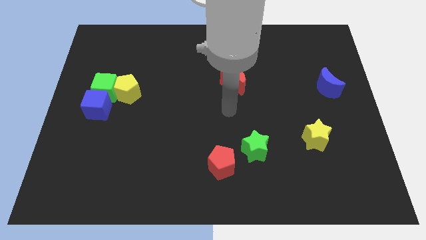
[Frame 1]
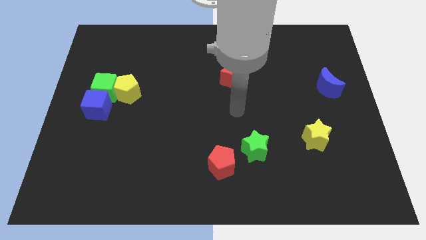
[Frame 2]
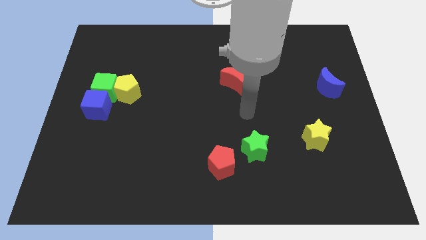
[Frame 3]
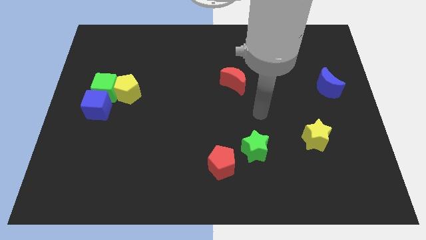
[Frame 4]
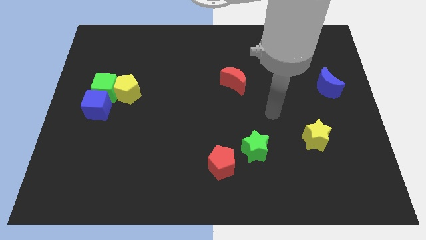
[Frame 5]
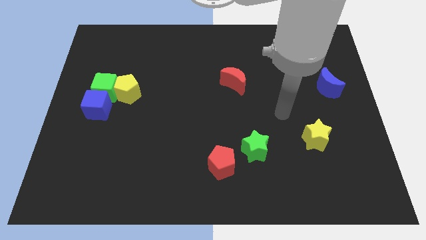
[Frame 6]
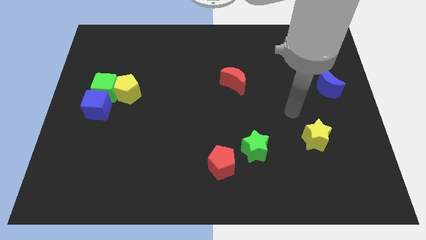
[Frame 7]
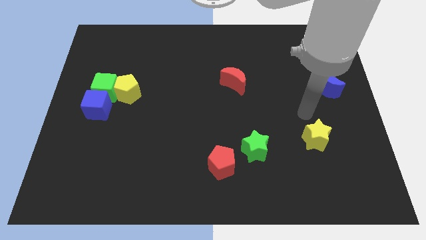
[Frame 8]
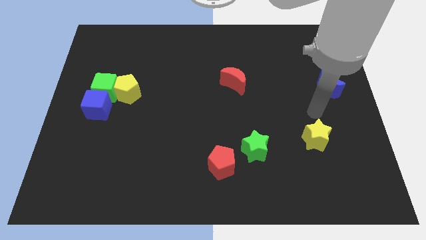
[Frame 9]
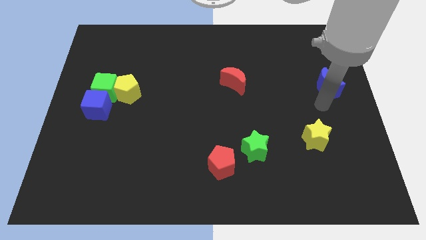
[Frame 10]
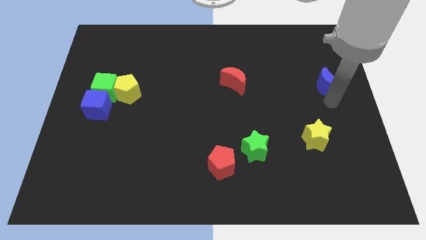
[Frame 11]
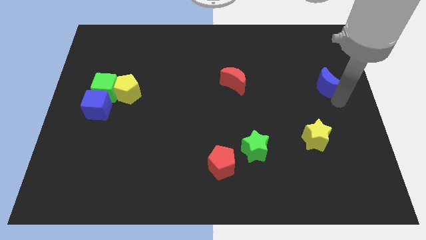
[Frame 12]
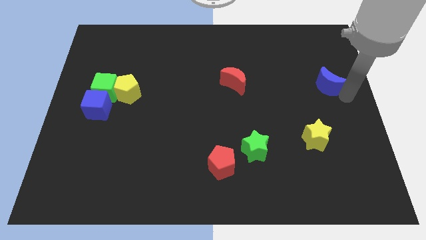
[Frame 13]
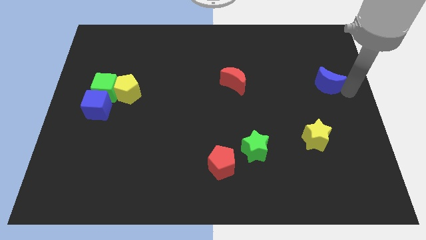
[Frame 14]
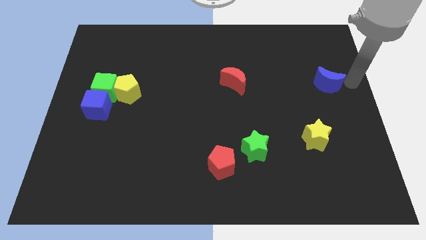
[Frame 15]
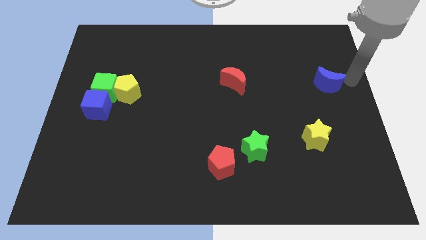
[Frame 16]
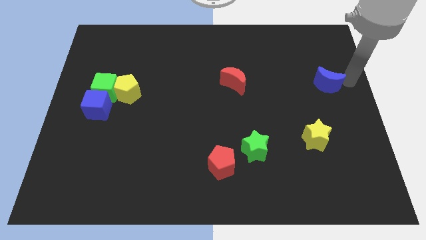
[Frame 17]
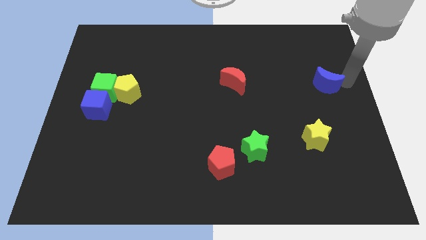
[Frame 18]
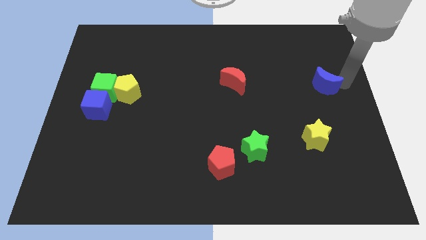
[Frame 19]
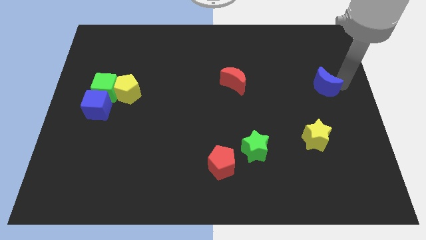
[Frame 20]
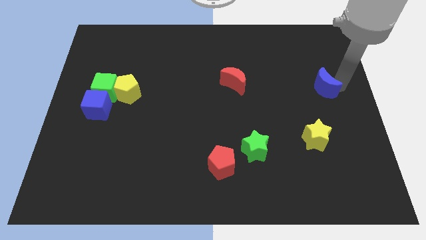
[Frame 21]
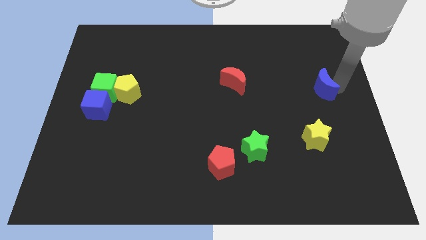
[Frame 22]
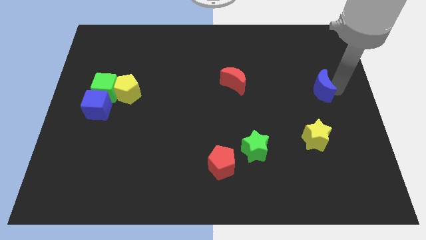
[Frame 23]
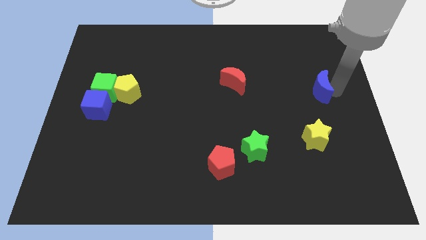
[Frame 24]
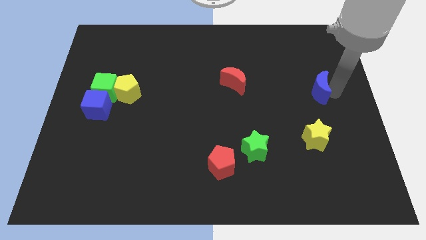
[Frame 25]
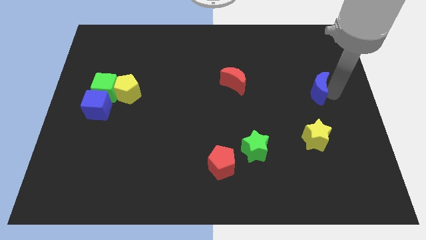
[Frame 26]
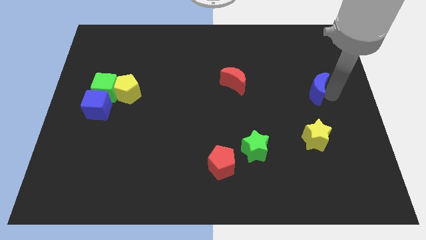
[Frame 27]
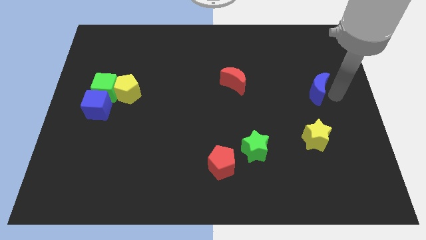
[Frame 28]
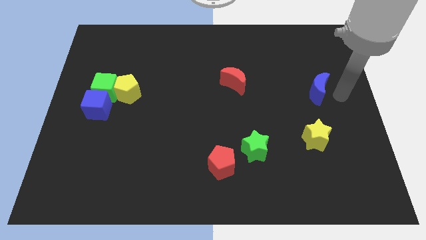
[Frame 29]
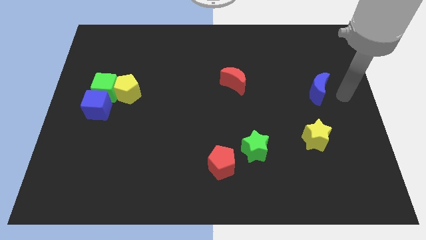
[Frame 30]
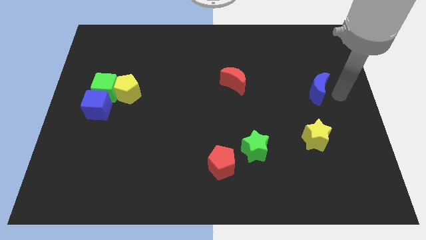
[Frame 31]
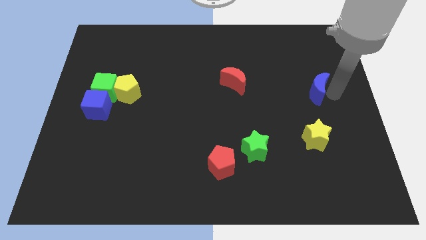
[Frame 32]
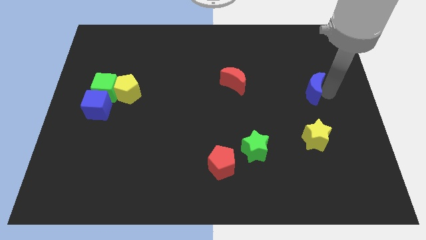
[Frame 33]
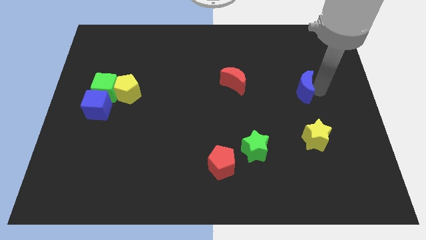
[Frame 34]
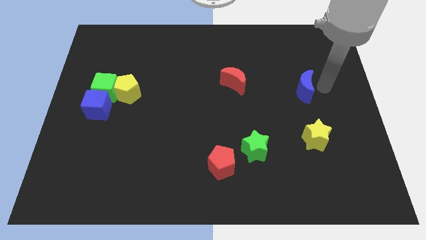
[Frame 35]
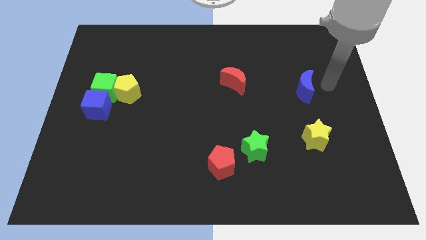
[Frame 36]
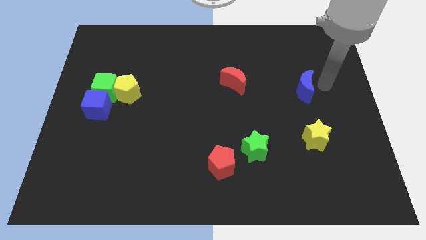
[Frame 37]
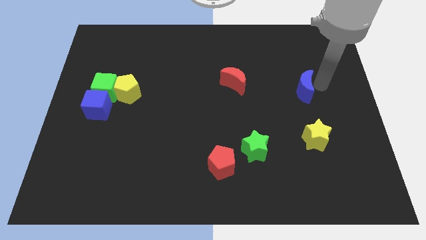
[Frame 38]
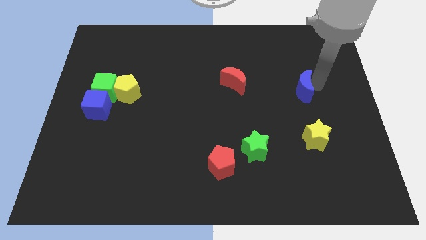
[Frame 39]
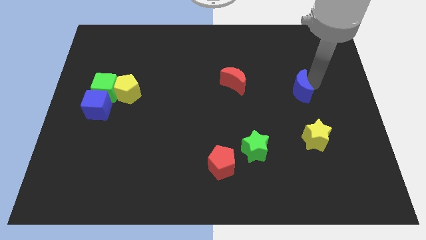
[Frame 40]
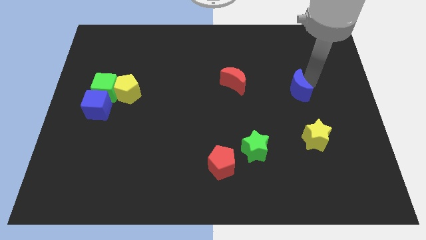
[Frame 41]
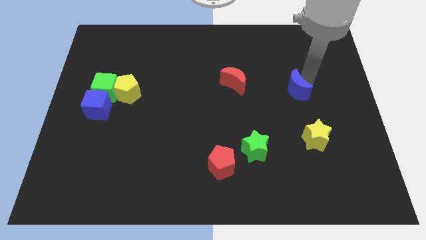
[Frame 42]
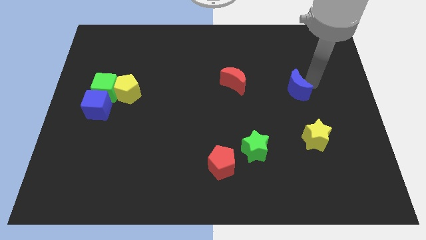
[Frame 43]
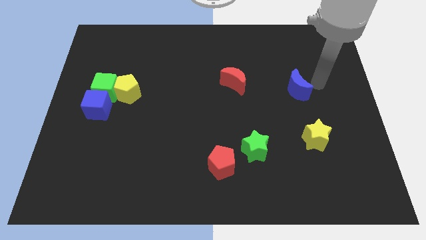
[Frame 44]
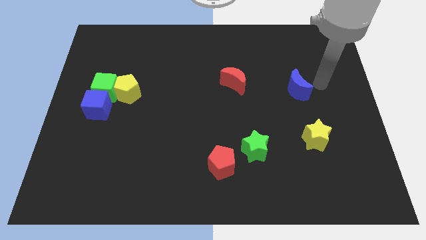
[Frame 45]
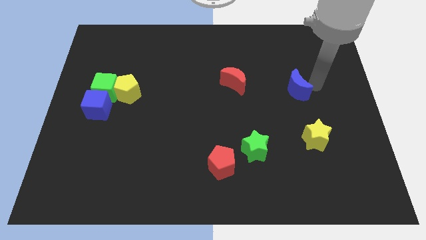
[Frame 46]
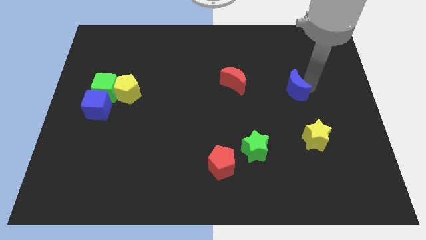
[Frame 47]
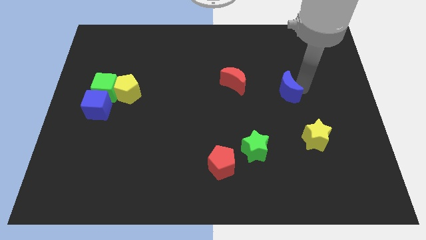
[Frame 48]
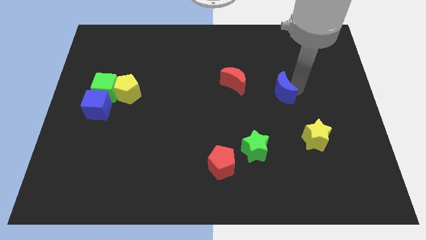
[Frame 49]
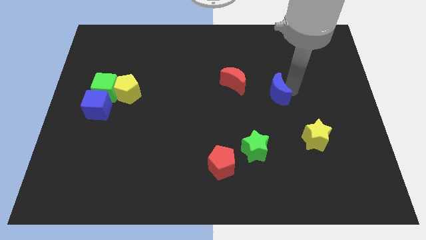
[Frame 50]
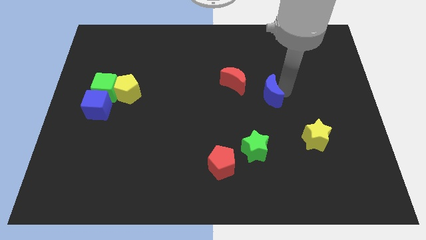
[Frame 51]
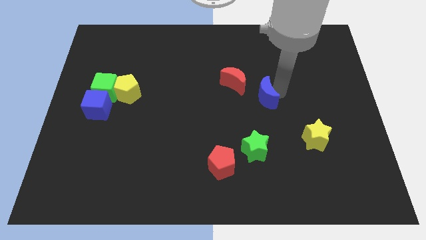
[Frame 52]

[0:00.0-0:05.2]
move the blue moon to the center of the board

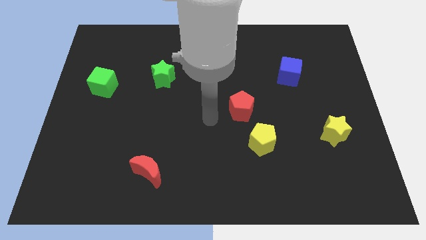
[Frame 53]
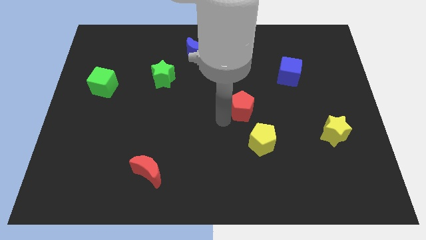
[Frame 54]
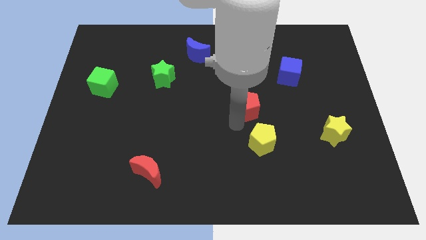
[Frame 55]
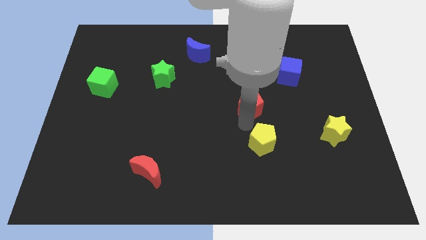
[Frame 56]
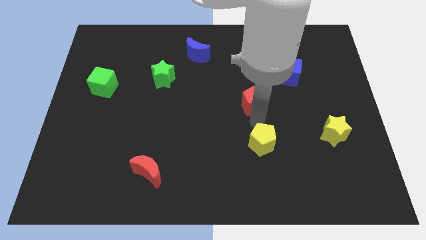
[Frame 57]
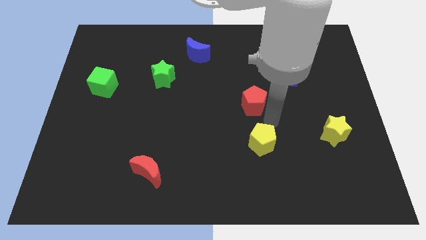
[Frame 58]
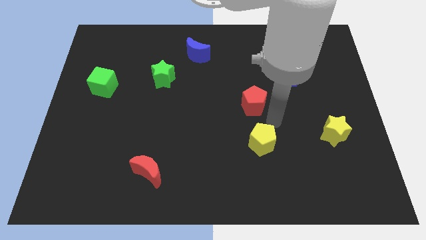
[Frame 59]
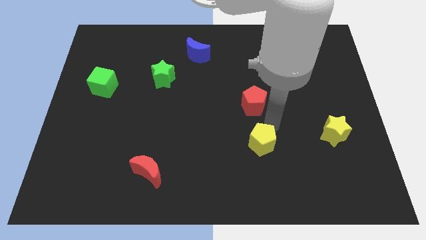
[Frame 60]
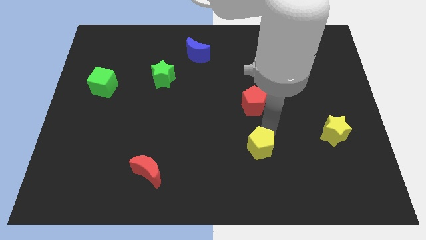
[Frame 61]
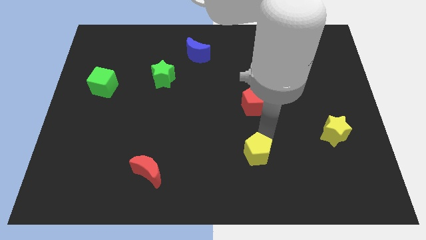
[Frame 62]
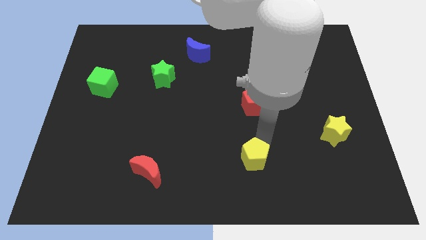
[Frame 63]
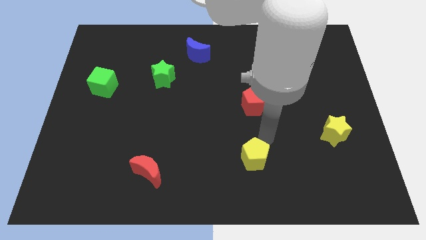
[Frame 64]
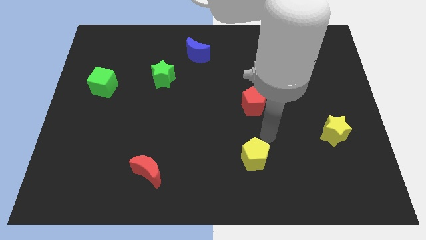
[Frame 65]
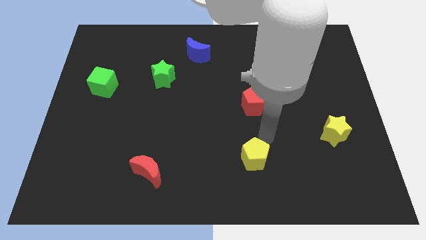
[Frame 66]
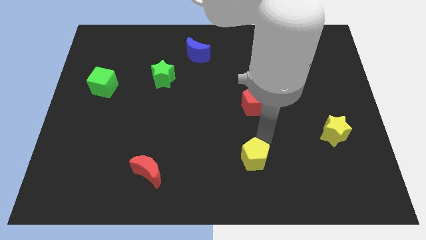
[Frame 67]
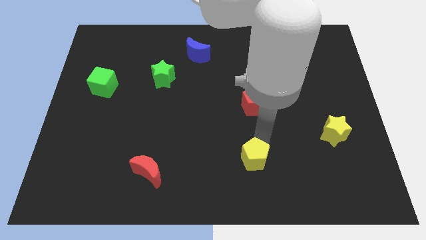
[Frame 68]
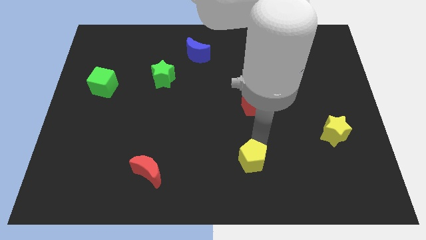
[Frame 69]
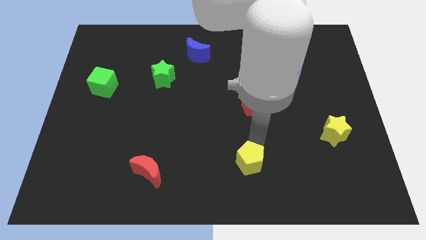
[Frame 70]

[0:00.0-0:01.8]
move the yellow pentagon to the bottom side
